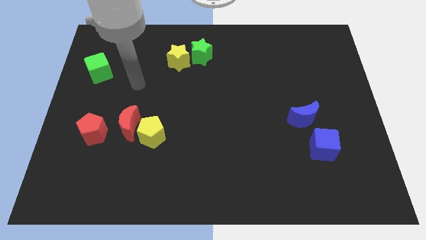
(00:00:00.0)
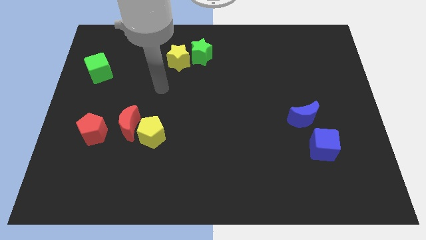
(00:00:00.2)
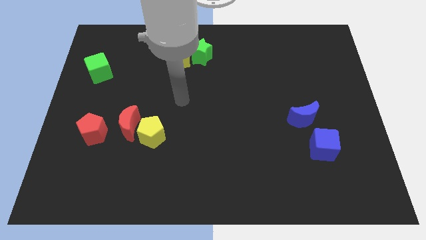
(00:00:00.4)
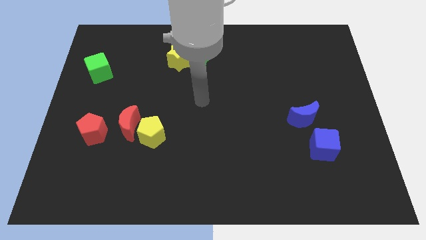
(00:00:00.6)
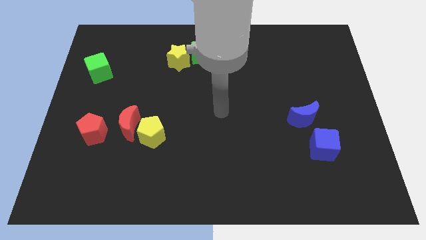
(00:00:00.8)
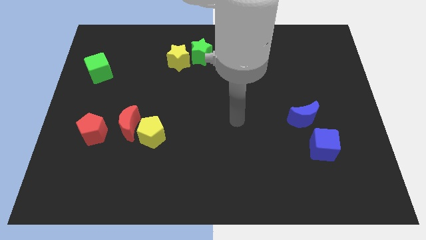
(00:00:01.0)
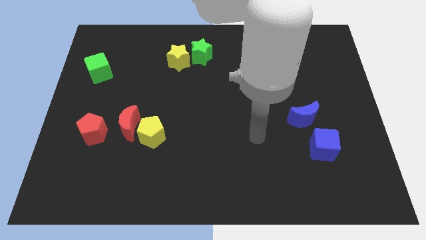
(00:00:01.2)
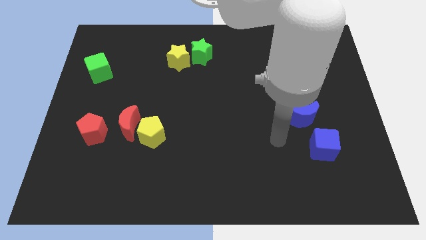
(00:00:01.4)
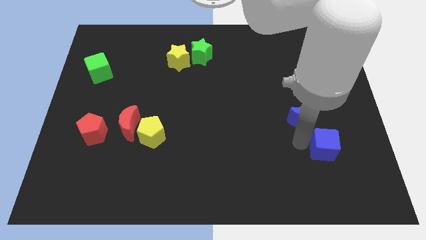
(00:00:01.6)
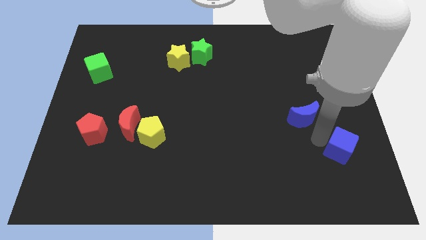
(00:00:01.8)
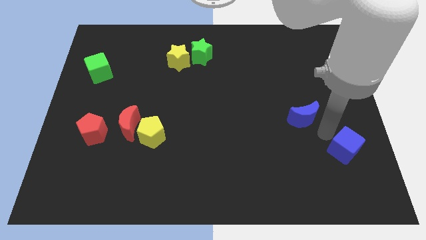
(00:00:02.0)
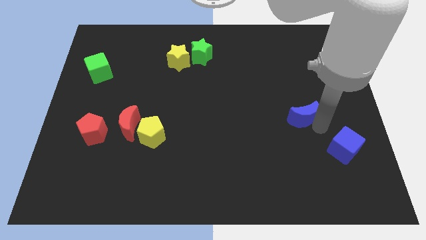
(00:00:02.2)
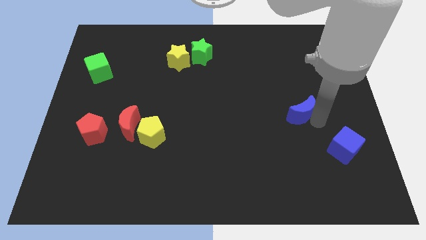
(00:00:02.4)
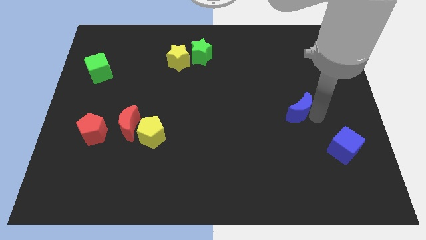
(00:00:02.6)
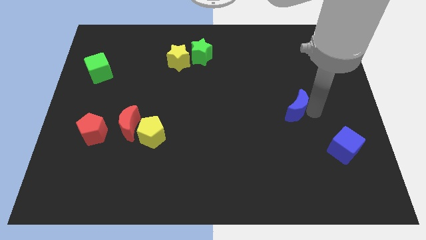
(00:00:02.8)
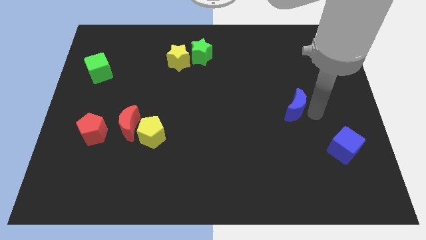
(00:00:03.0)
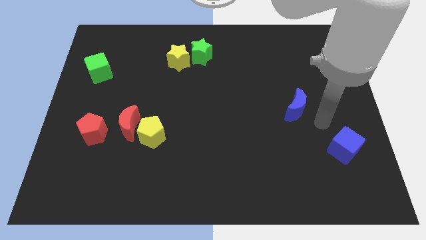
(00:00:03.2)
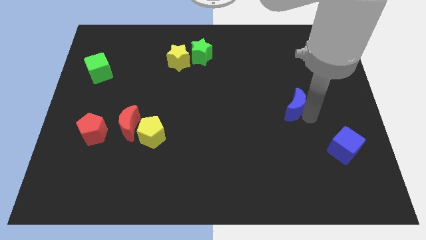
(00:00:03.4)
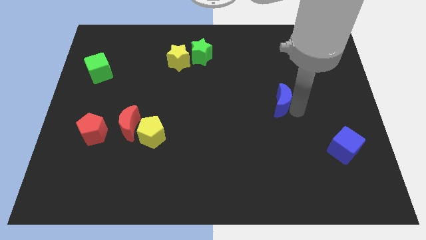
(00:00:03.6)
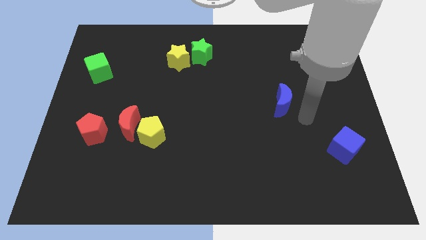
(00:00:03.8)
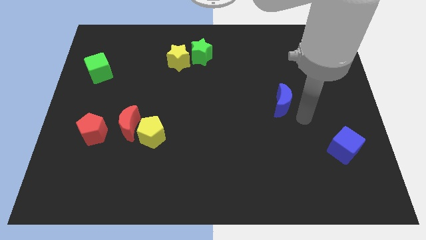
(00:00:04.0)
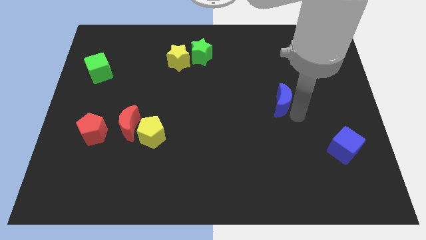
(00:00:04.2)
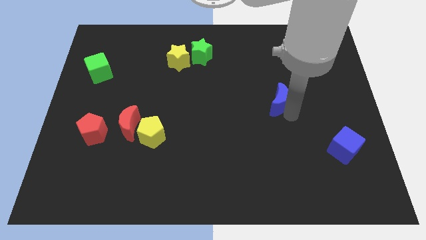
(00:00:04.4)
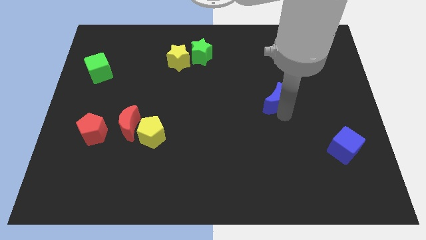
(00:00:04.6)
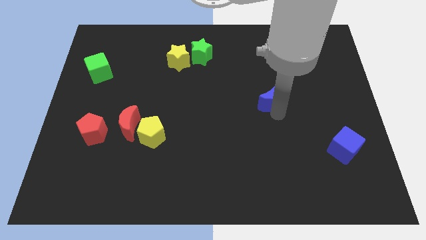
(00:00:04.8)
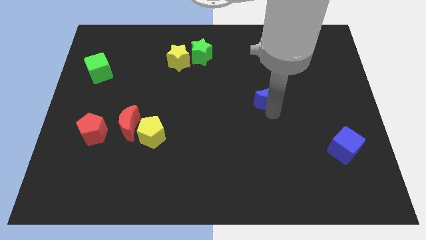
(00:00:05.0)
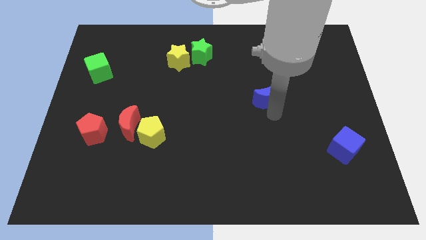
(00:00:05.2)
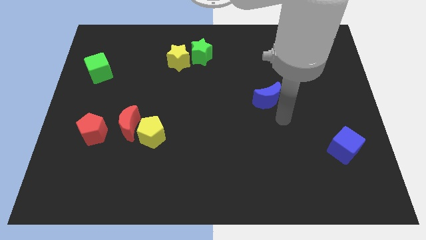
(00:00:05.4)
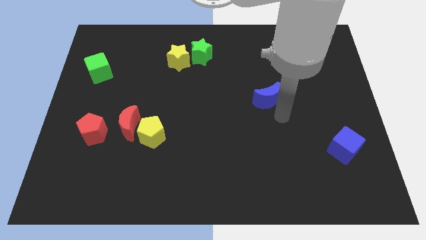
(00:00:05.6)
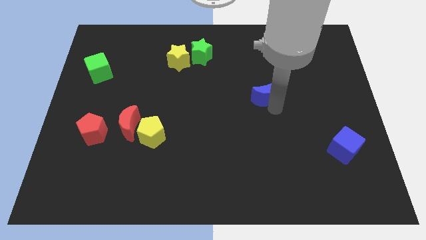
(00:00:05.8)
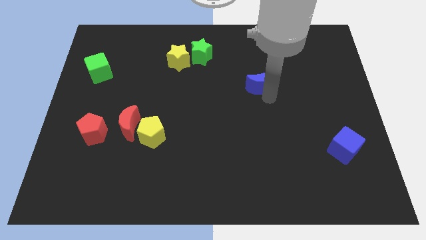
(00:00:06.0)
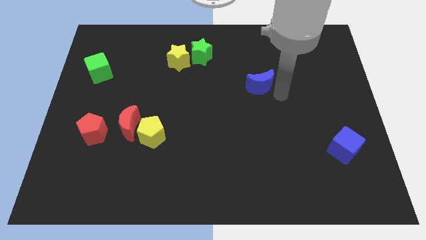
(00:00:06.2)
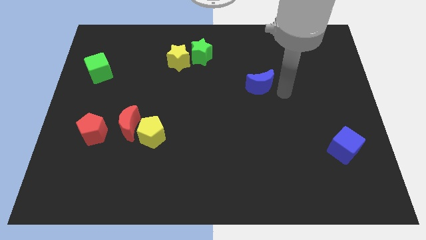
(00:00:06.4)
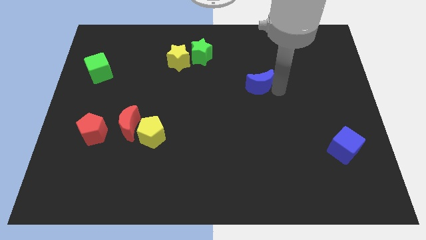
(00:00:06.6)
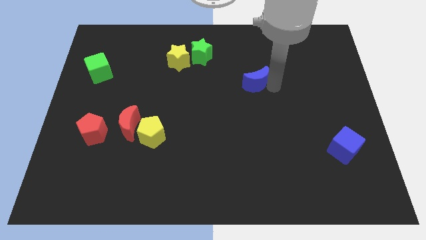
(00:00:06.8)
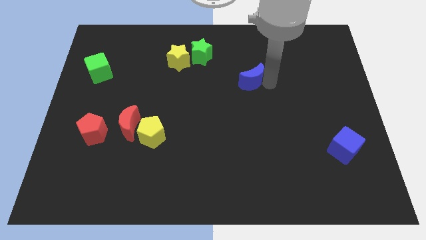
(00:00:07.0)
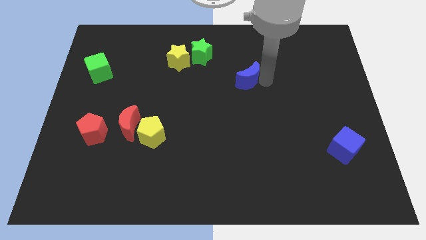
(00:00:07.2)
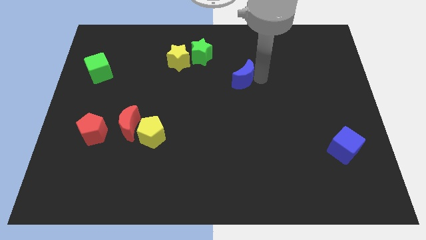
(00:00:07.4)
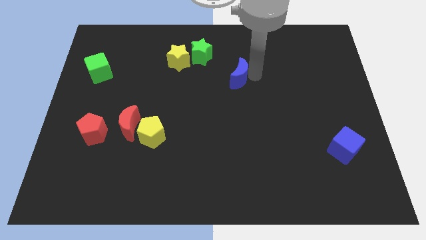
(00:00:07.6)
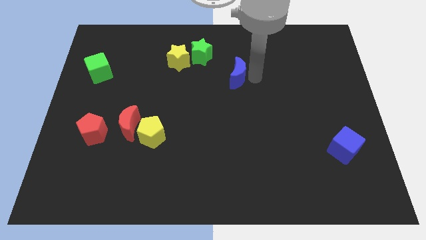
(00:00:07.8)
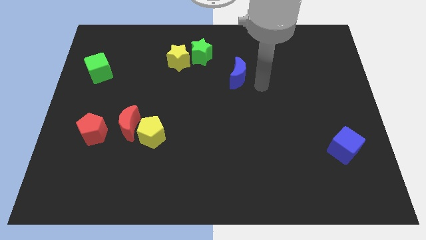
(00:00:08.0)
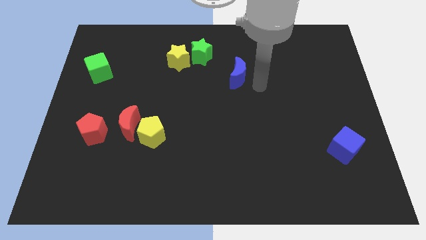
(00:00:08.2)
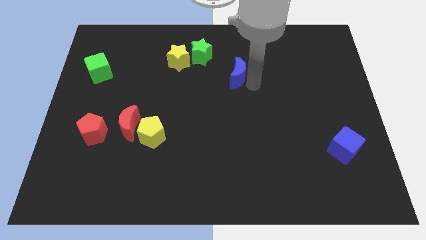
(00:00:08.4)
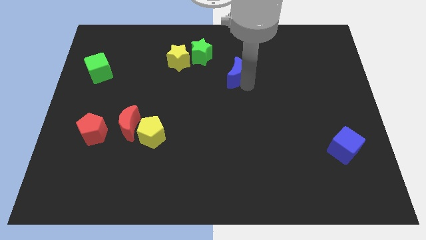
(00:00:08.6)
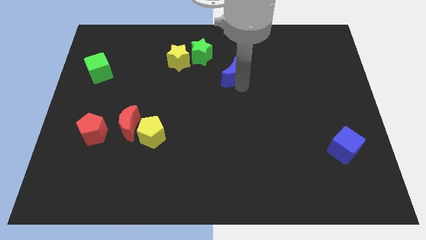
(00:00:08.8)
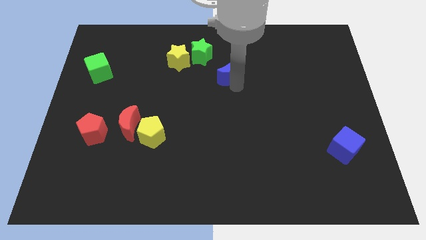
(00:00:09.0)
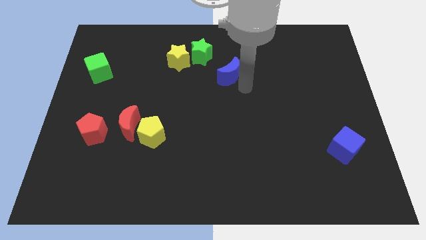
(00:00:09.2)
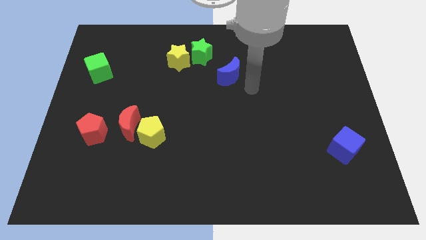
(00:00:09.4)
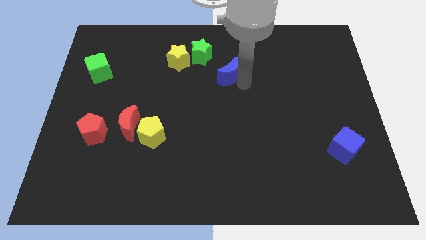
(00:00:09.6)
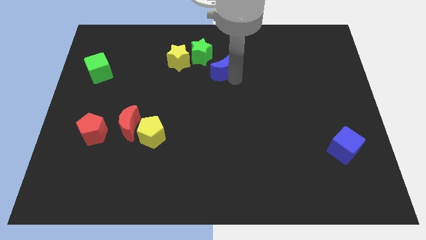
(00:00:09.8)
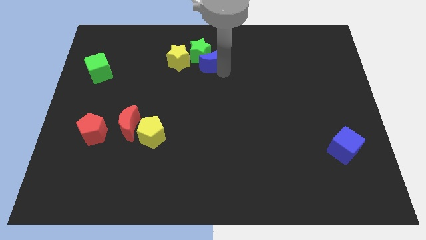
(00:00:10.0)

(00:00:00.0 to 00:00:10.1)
push the blue moon close to the green star

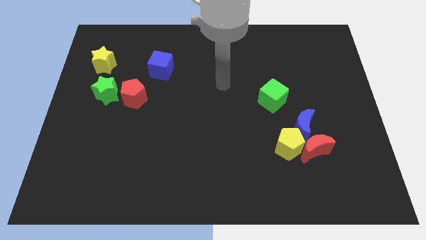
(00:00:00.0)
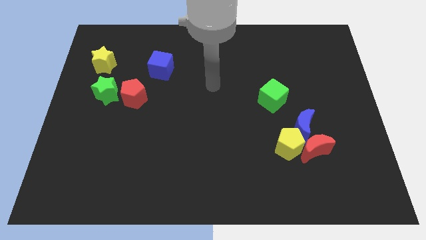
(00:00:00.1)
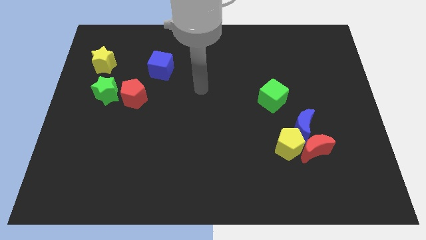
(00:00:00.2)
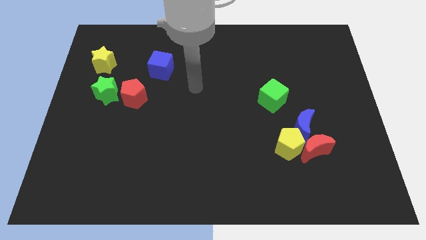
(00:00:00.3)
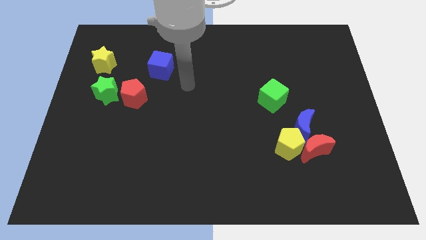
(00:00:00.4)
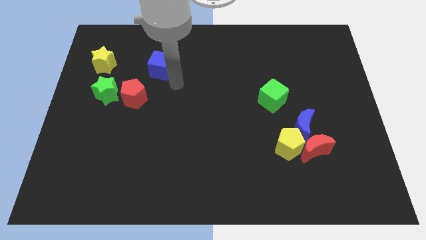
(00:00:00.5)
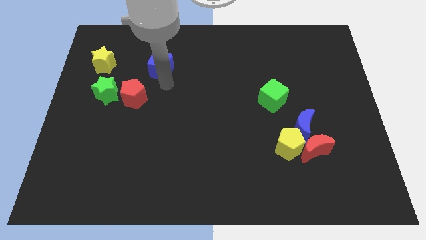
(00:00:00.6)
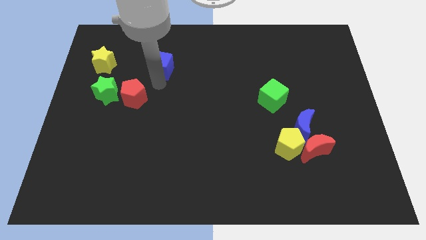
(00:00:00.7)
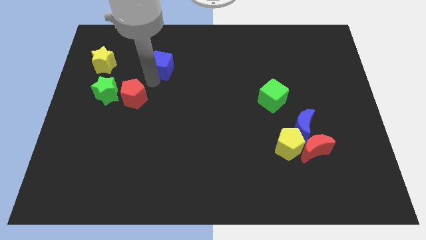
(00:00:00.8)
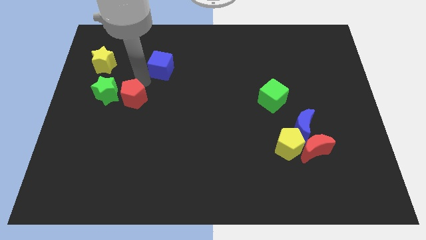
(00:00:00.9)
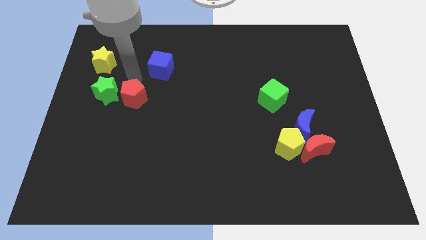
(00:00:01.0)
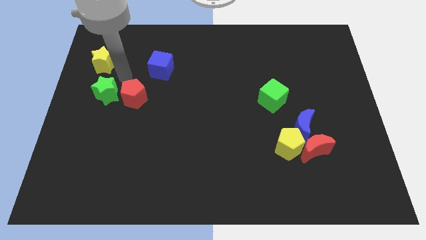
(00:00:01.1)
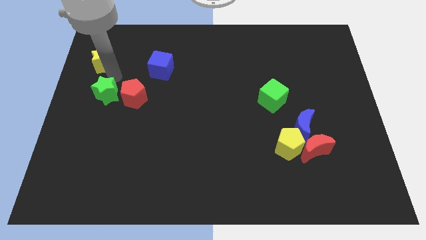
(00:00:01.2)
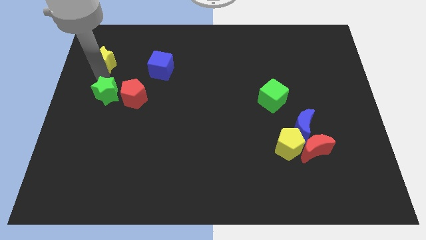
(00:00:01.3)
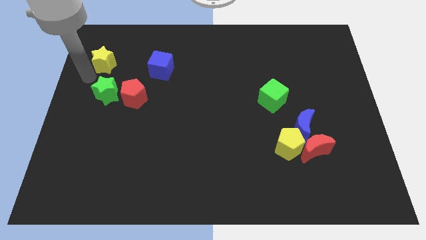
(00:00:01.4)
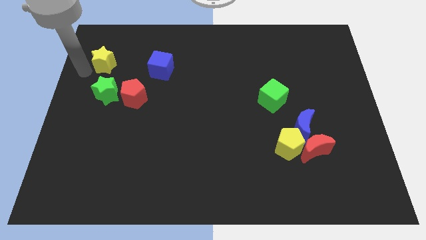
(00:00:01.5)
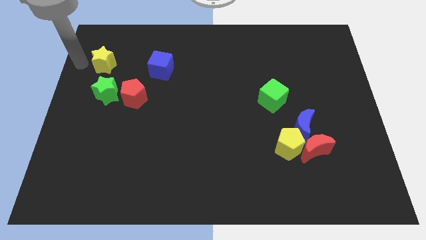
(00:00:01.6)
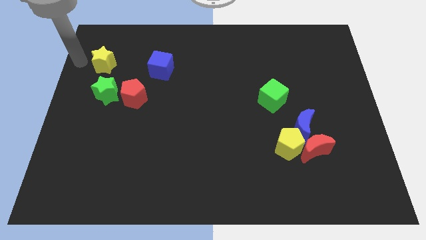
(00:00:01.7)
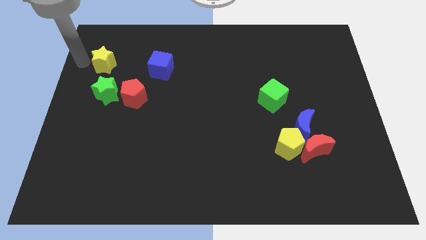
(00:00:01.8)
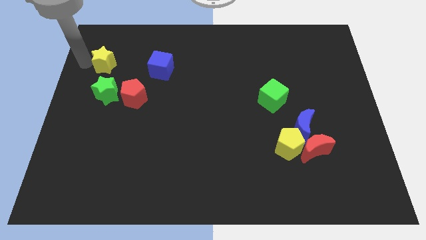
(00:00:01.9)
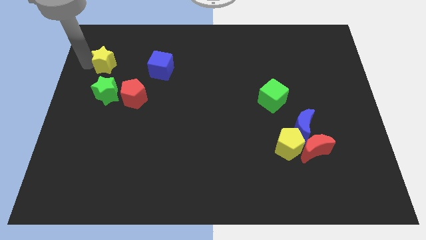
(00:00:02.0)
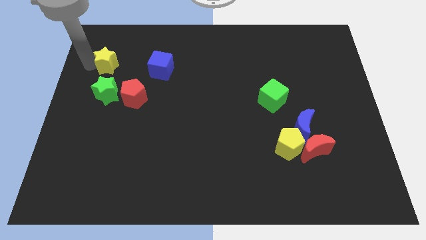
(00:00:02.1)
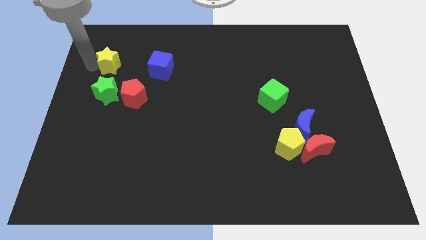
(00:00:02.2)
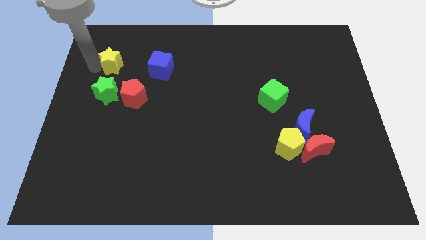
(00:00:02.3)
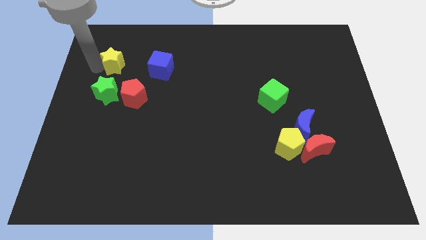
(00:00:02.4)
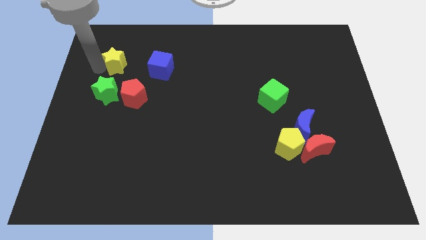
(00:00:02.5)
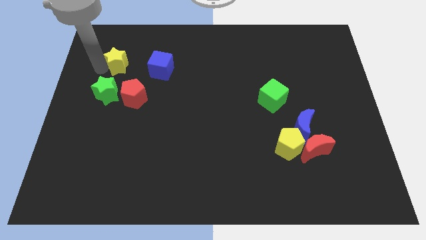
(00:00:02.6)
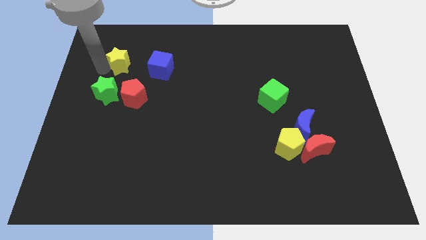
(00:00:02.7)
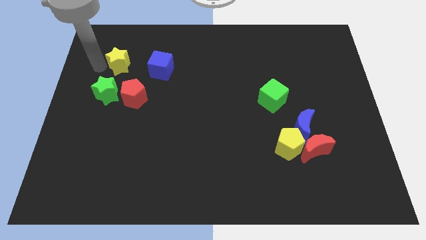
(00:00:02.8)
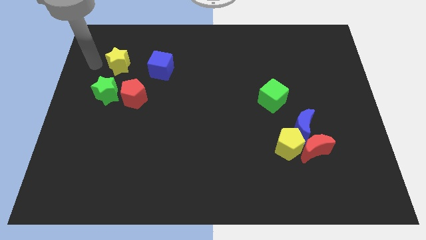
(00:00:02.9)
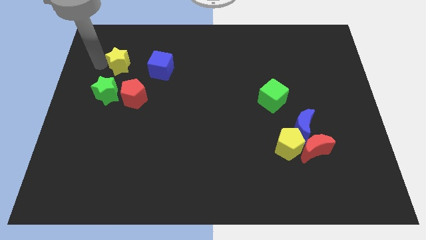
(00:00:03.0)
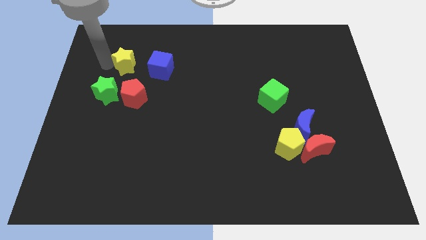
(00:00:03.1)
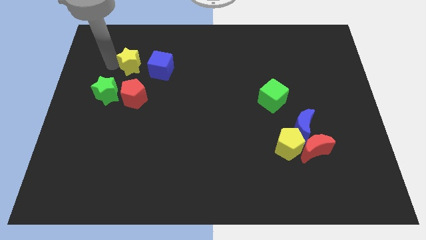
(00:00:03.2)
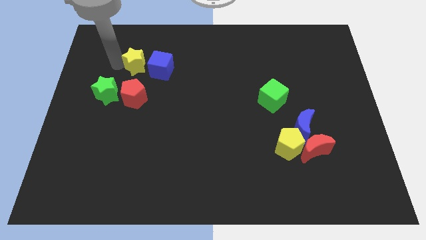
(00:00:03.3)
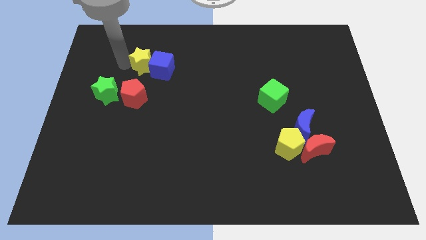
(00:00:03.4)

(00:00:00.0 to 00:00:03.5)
move the yellow star towards the blue cube
